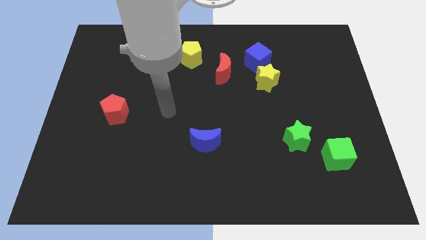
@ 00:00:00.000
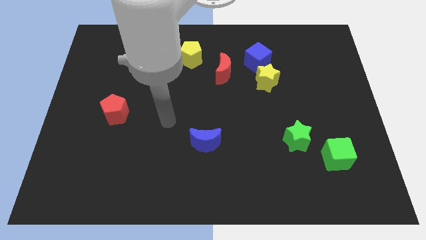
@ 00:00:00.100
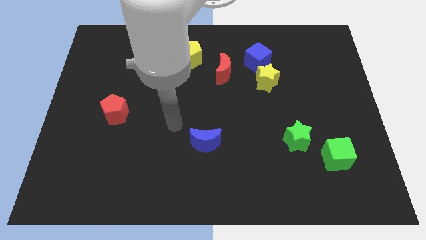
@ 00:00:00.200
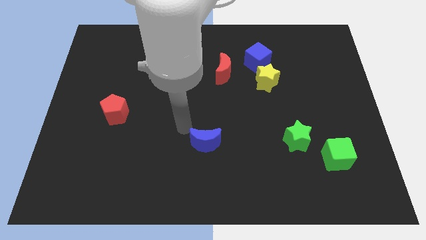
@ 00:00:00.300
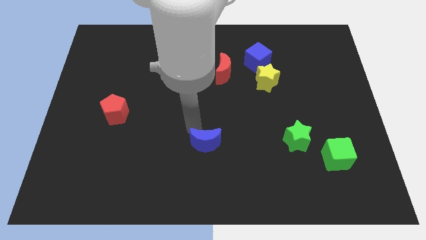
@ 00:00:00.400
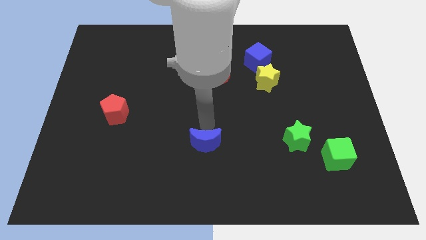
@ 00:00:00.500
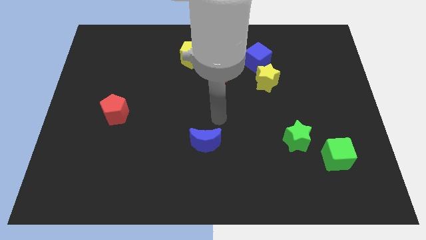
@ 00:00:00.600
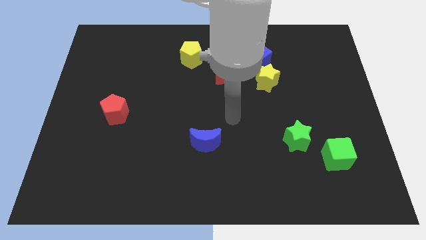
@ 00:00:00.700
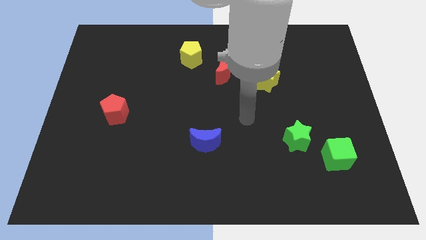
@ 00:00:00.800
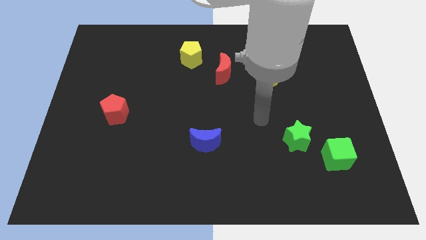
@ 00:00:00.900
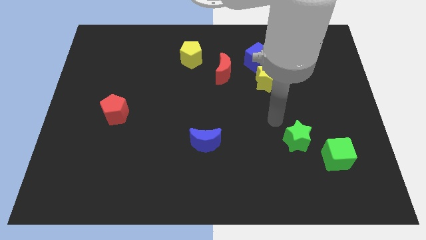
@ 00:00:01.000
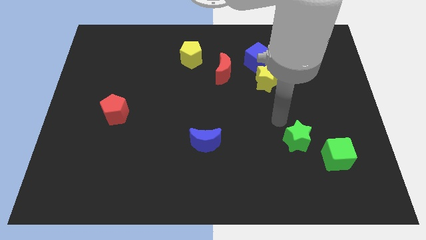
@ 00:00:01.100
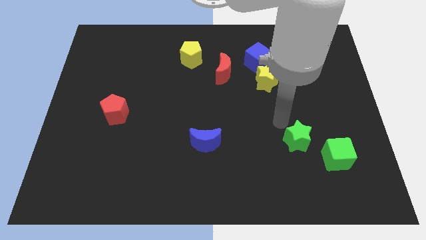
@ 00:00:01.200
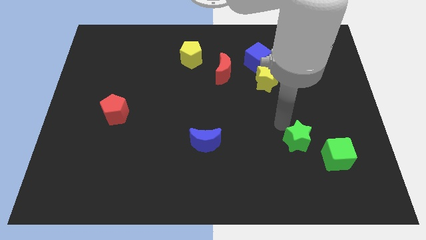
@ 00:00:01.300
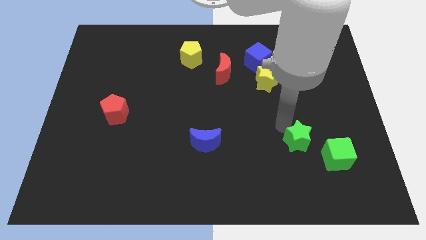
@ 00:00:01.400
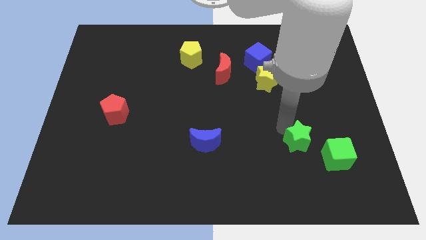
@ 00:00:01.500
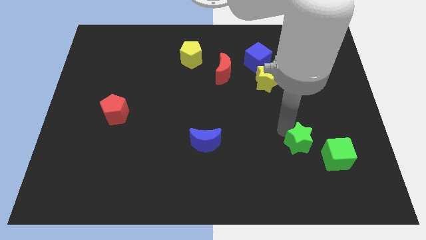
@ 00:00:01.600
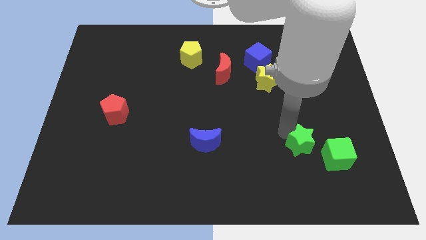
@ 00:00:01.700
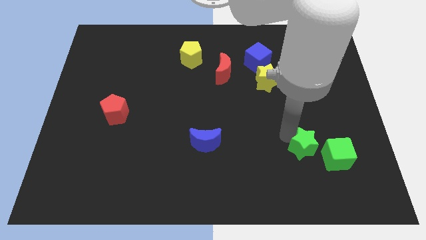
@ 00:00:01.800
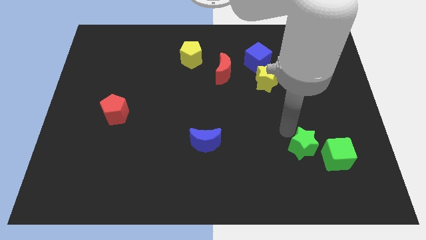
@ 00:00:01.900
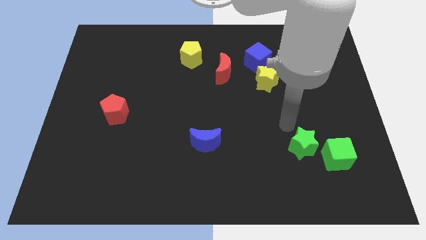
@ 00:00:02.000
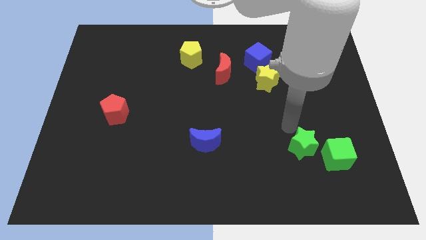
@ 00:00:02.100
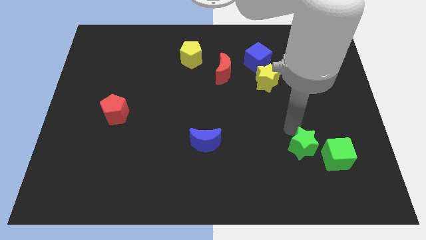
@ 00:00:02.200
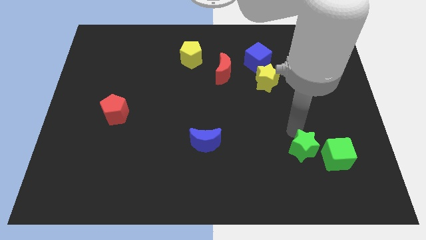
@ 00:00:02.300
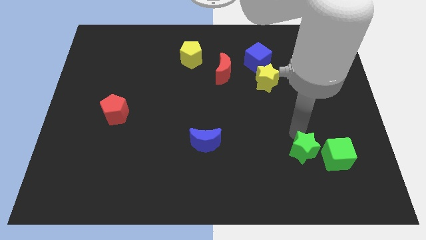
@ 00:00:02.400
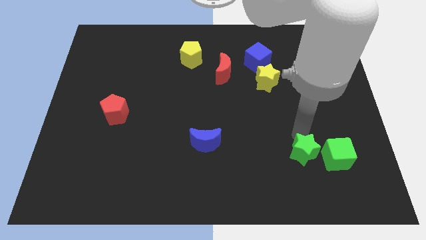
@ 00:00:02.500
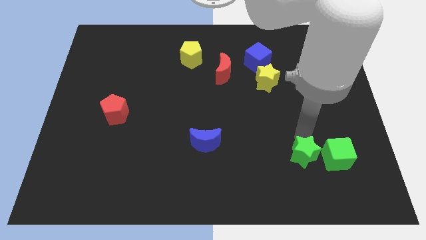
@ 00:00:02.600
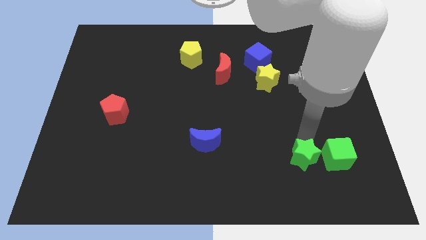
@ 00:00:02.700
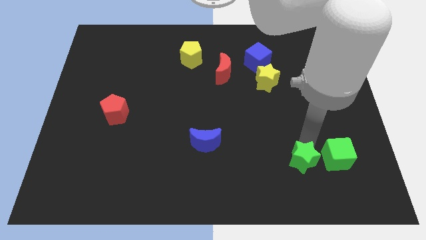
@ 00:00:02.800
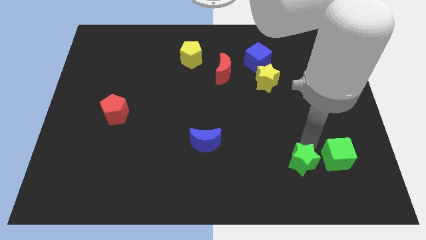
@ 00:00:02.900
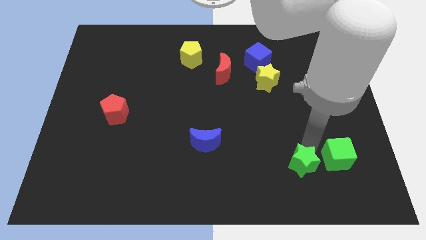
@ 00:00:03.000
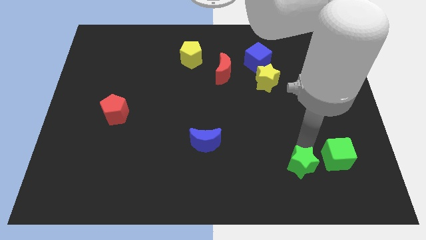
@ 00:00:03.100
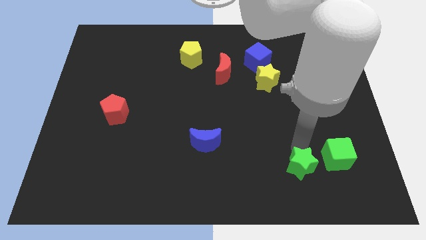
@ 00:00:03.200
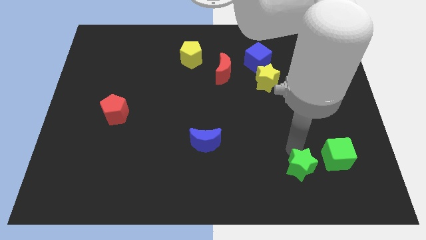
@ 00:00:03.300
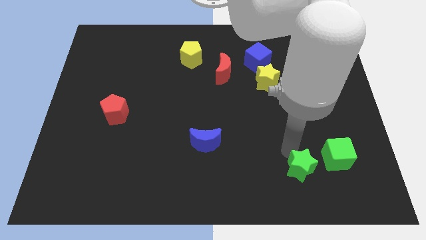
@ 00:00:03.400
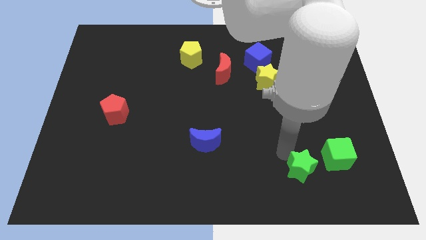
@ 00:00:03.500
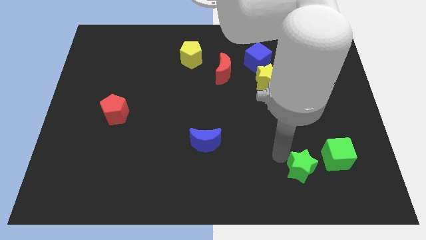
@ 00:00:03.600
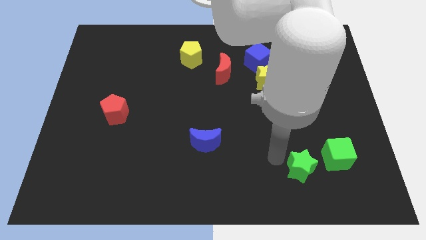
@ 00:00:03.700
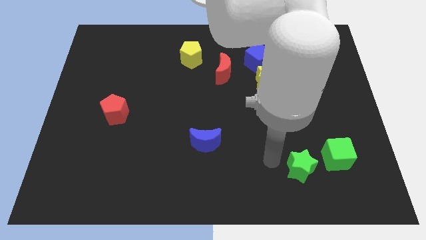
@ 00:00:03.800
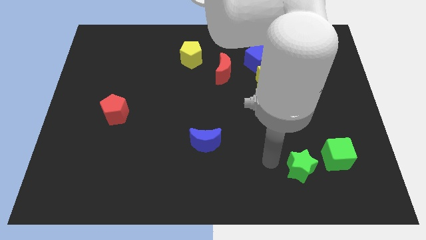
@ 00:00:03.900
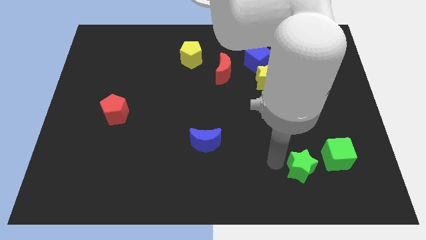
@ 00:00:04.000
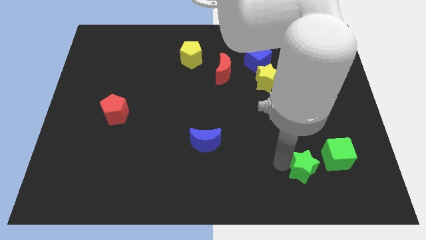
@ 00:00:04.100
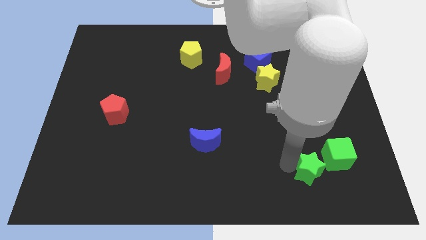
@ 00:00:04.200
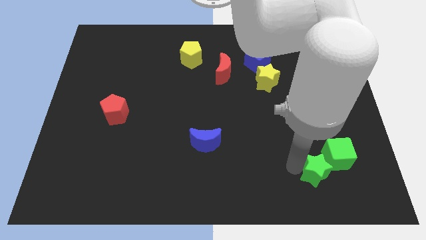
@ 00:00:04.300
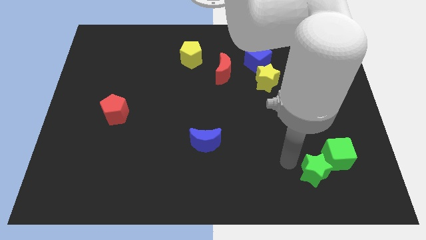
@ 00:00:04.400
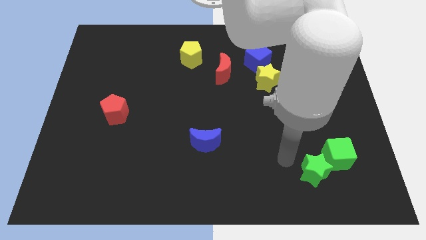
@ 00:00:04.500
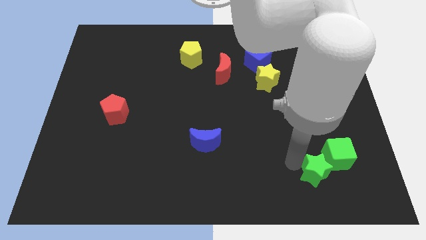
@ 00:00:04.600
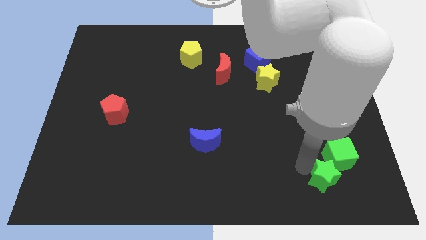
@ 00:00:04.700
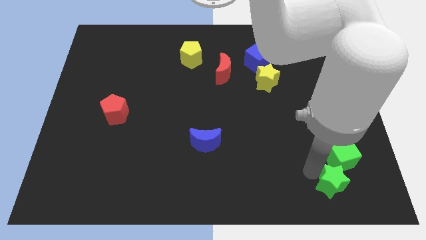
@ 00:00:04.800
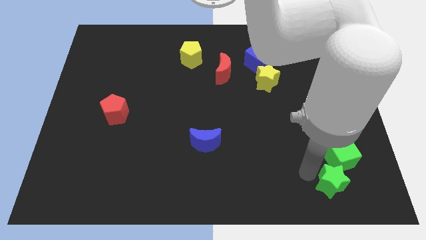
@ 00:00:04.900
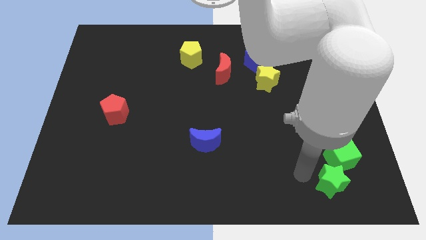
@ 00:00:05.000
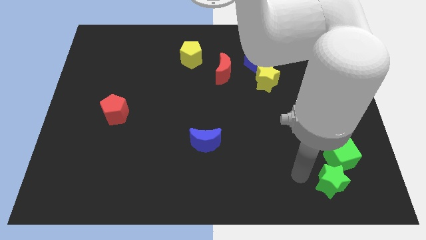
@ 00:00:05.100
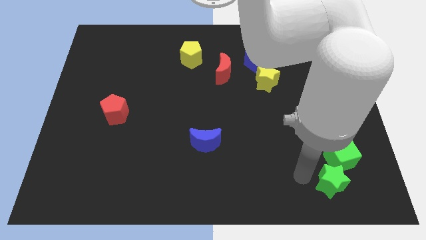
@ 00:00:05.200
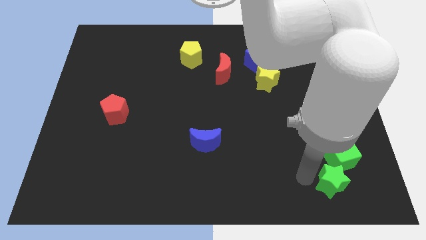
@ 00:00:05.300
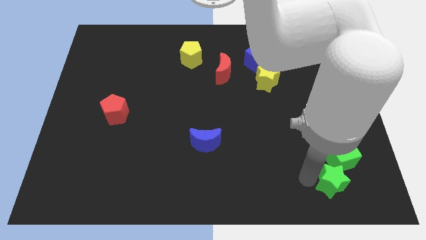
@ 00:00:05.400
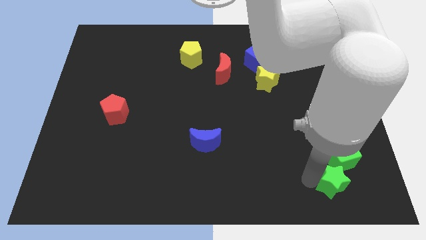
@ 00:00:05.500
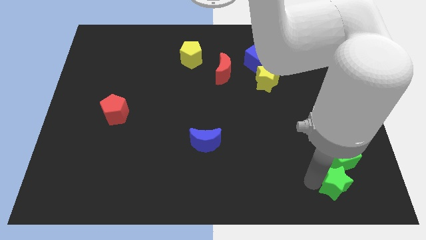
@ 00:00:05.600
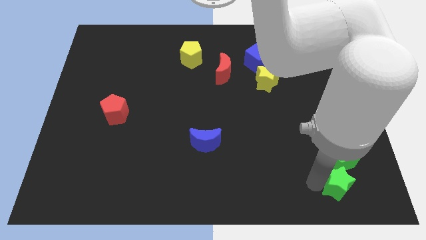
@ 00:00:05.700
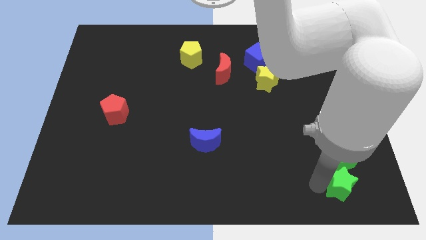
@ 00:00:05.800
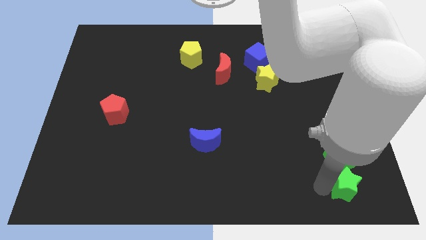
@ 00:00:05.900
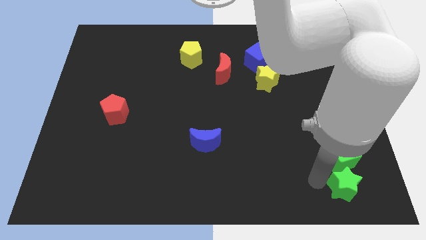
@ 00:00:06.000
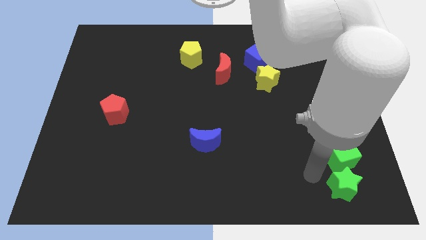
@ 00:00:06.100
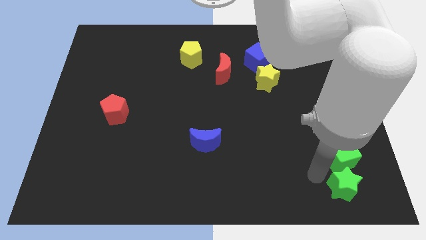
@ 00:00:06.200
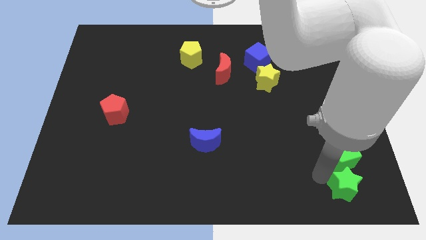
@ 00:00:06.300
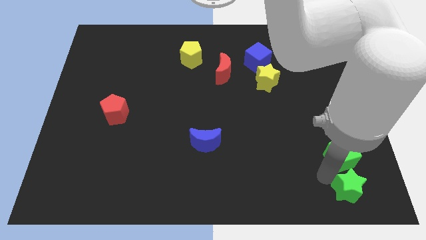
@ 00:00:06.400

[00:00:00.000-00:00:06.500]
push the green star to the bottom right
